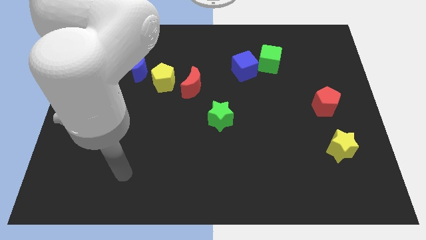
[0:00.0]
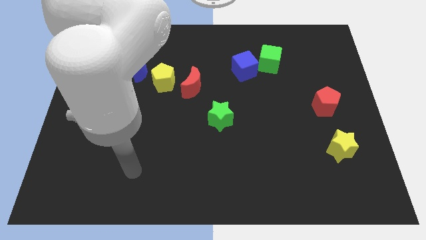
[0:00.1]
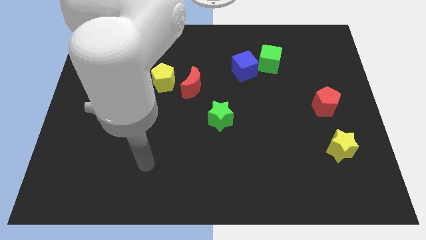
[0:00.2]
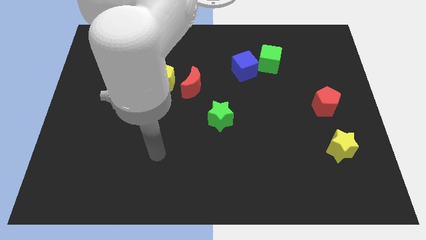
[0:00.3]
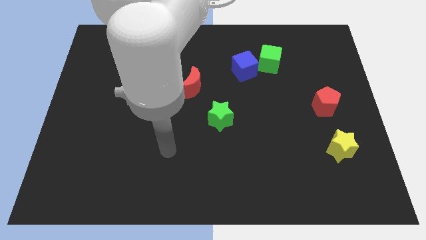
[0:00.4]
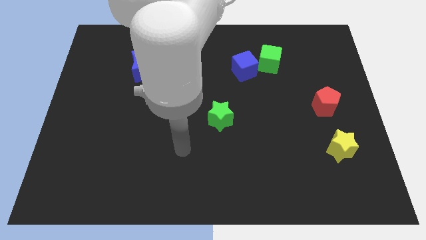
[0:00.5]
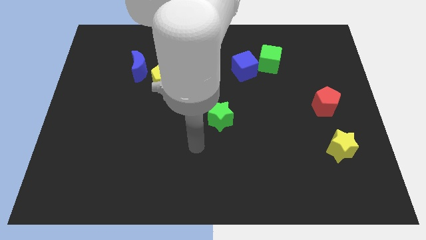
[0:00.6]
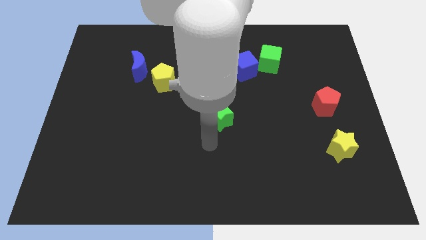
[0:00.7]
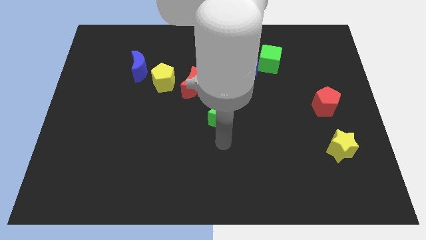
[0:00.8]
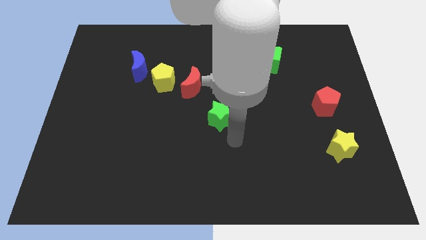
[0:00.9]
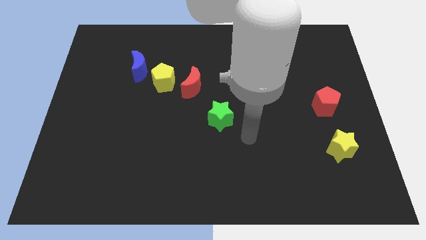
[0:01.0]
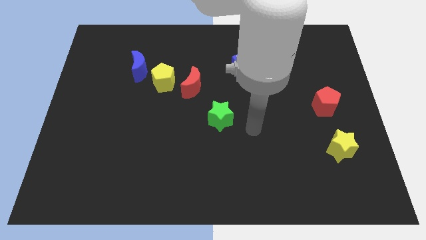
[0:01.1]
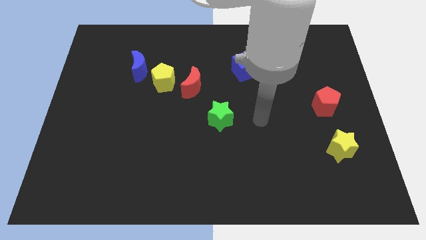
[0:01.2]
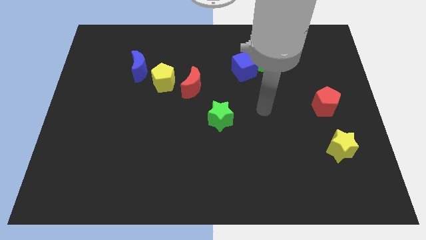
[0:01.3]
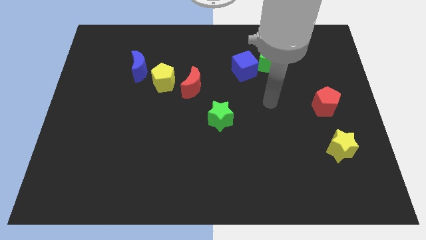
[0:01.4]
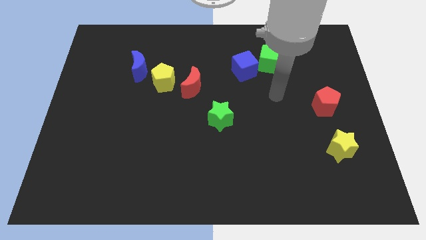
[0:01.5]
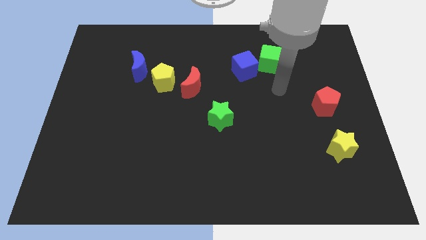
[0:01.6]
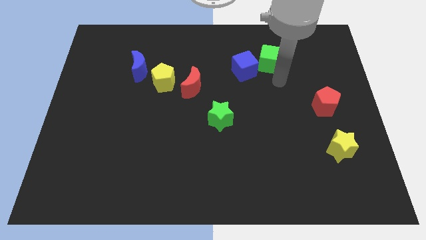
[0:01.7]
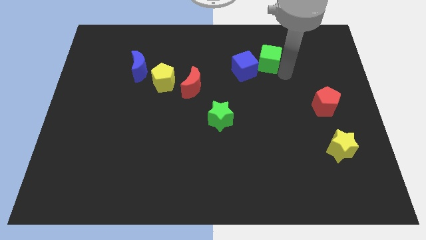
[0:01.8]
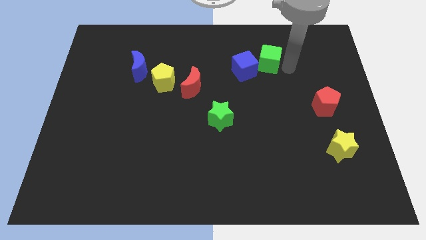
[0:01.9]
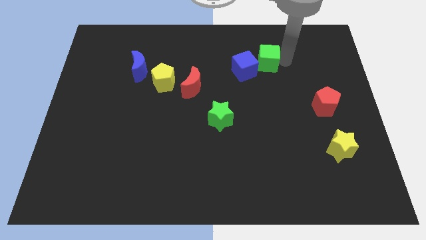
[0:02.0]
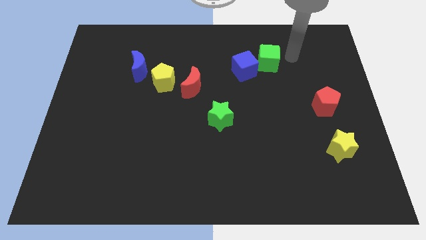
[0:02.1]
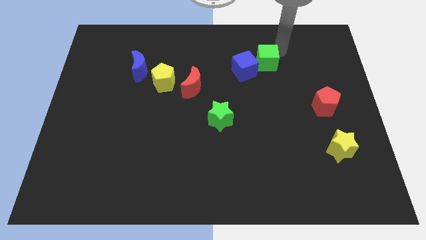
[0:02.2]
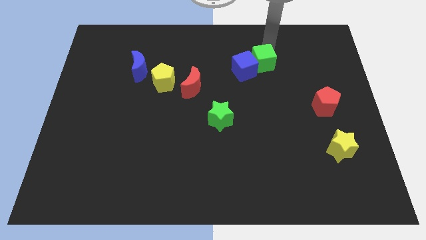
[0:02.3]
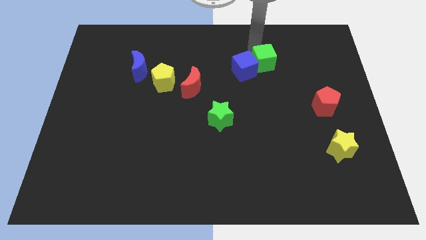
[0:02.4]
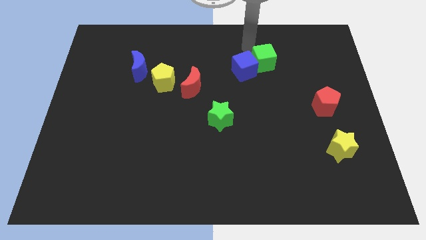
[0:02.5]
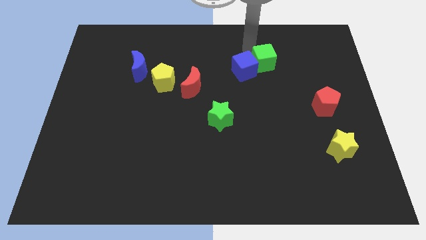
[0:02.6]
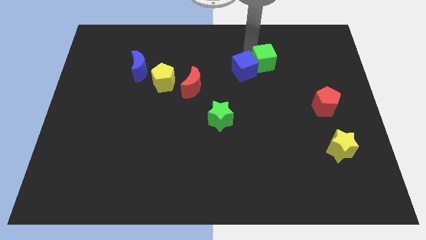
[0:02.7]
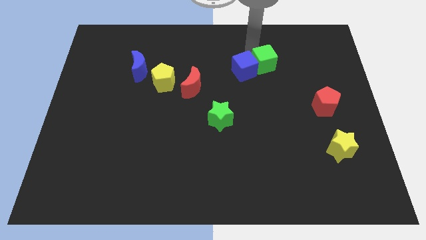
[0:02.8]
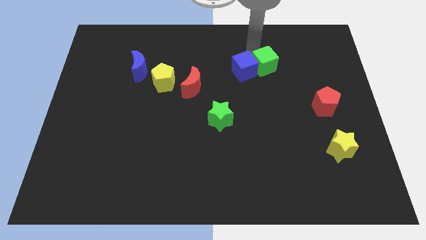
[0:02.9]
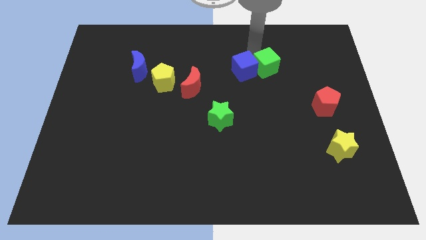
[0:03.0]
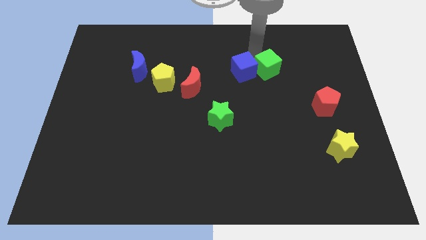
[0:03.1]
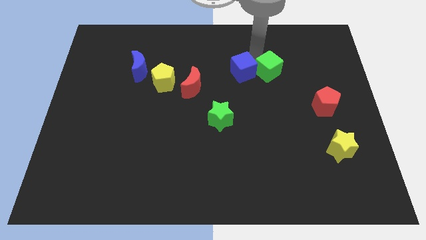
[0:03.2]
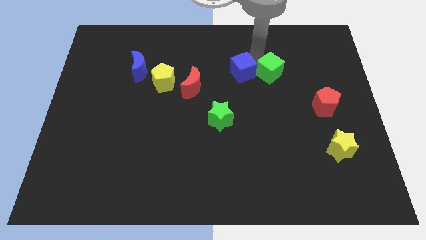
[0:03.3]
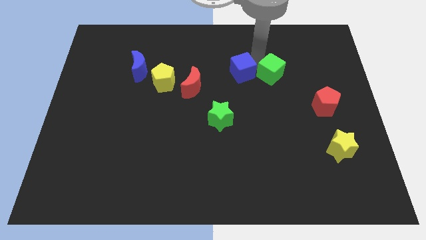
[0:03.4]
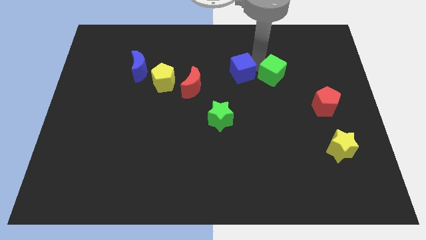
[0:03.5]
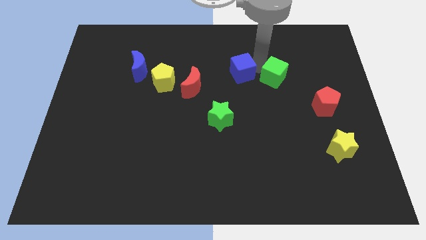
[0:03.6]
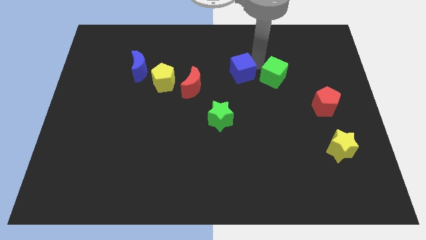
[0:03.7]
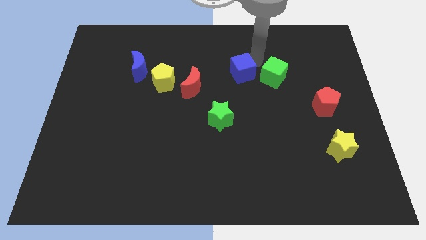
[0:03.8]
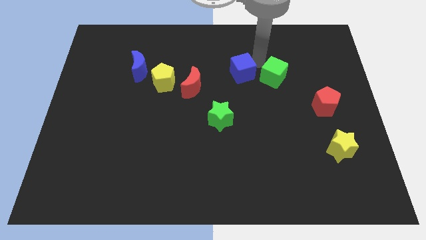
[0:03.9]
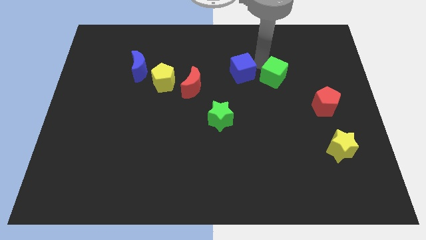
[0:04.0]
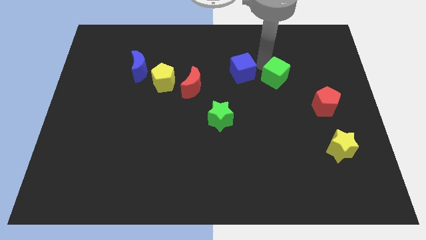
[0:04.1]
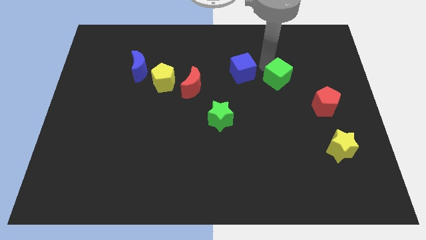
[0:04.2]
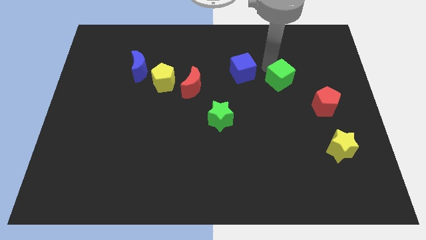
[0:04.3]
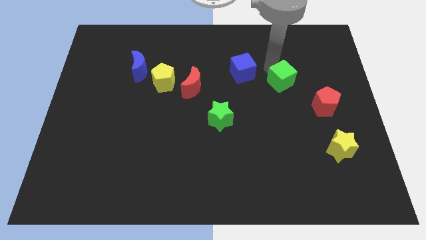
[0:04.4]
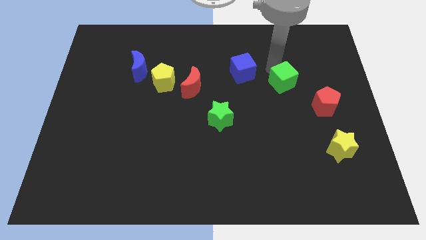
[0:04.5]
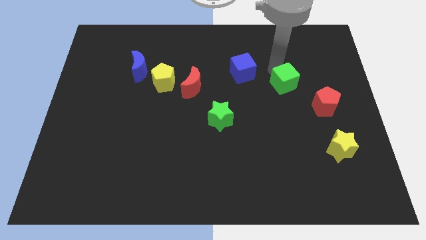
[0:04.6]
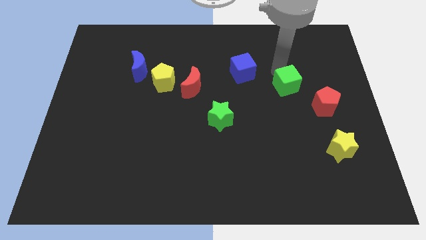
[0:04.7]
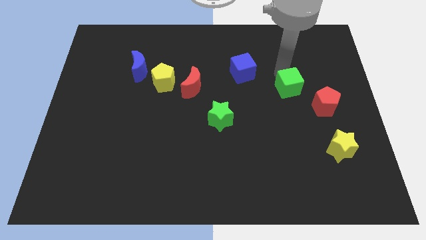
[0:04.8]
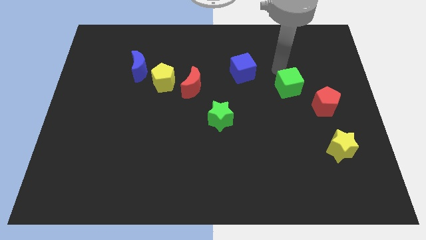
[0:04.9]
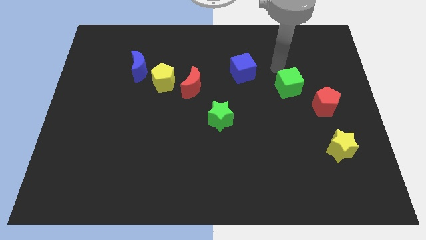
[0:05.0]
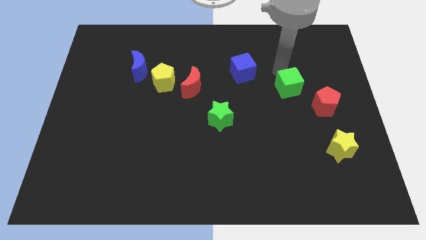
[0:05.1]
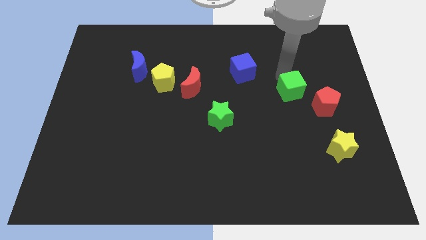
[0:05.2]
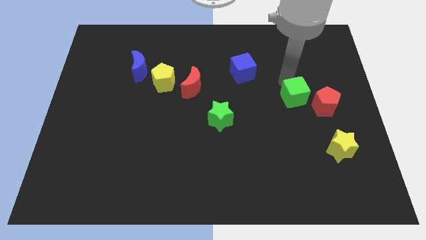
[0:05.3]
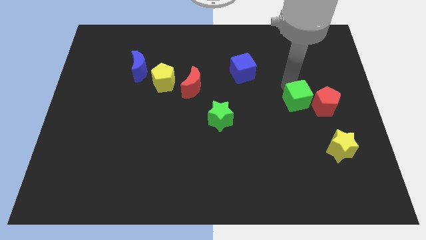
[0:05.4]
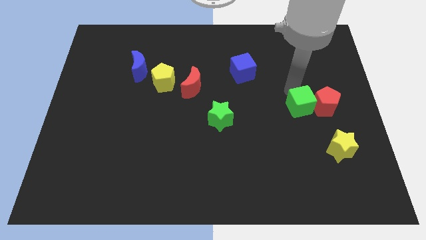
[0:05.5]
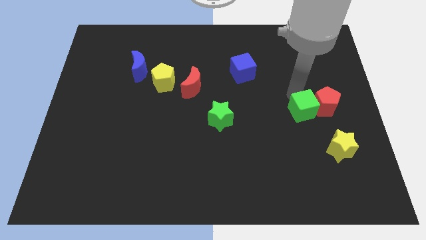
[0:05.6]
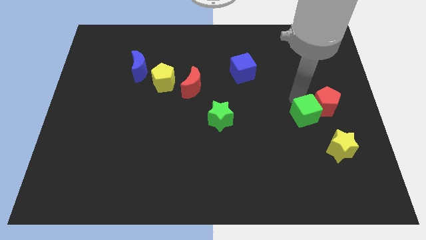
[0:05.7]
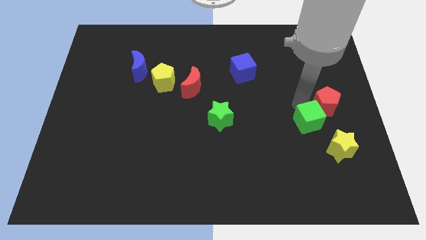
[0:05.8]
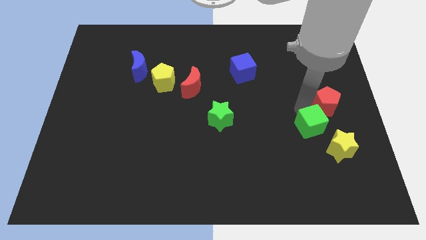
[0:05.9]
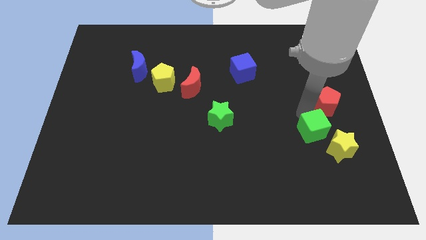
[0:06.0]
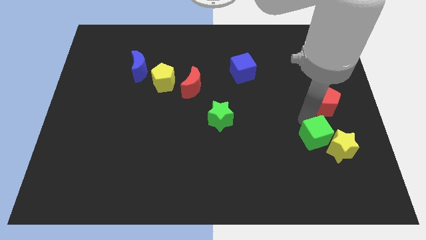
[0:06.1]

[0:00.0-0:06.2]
push the green cube next to the yellow star
